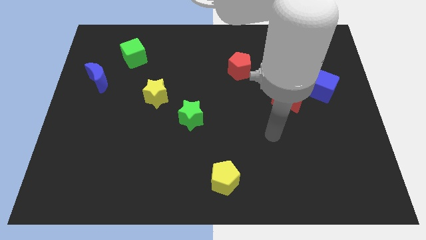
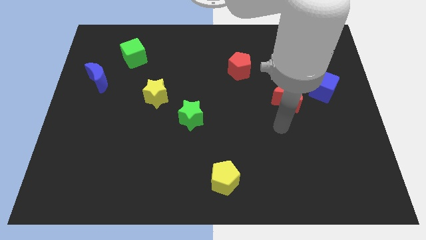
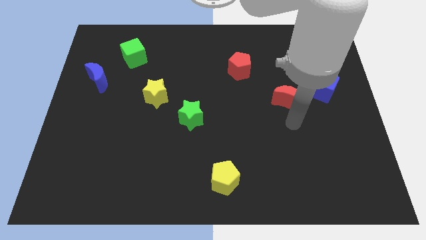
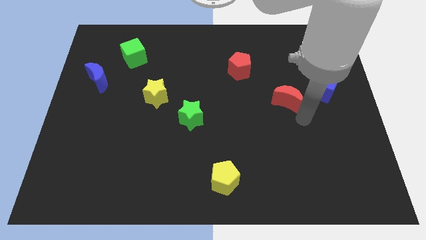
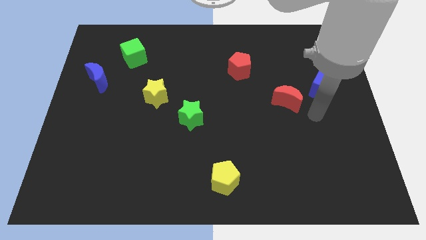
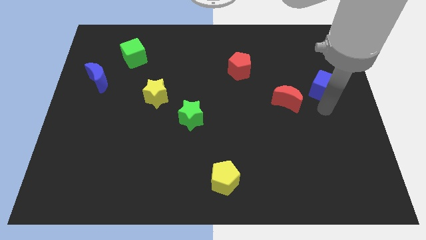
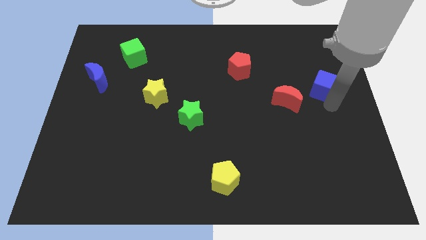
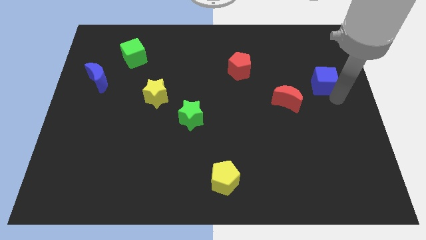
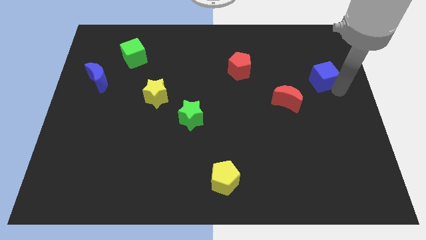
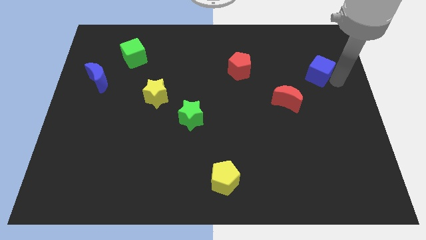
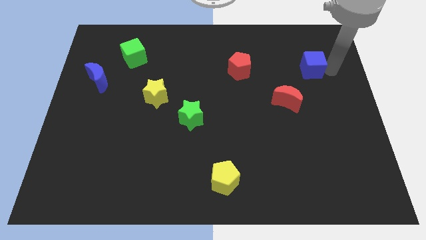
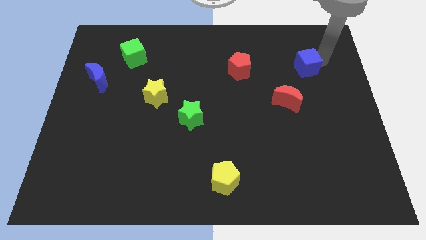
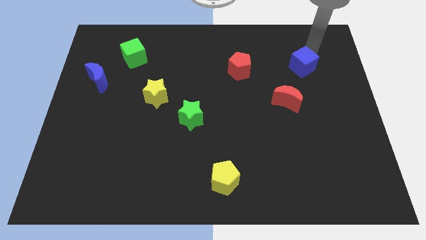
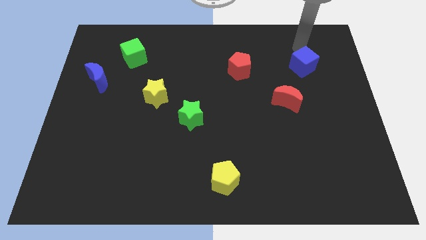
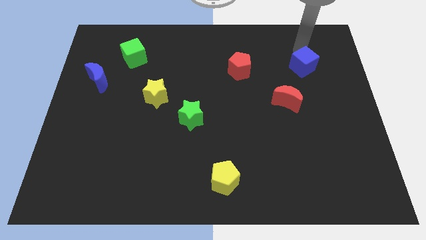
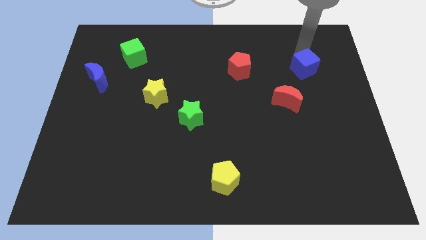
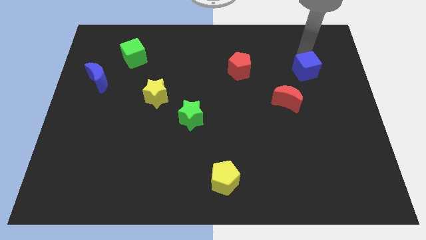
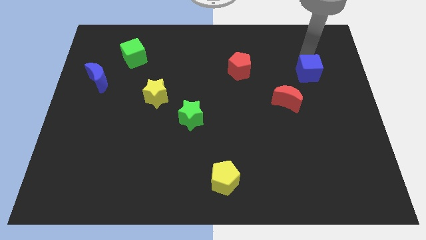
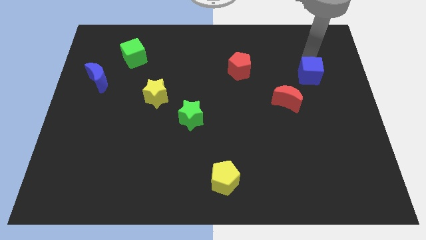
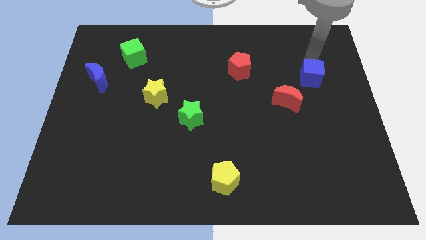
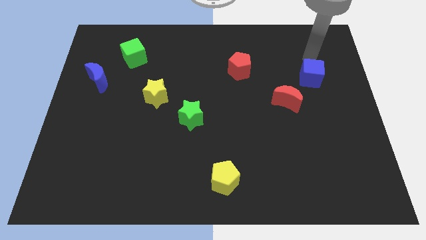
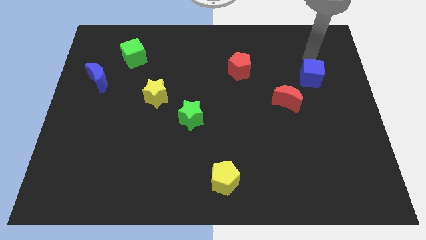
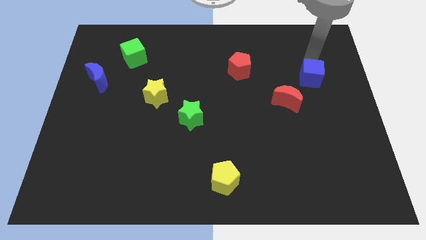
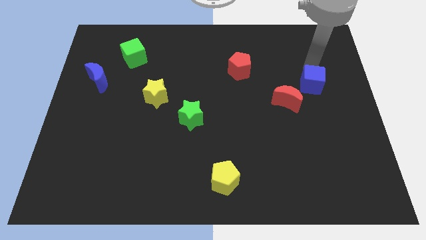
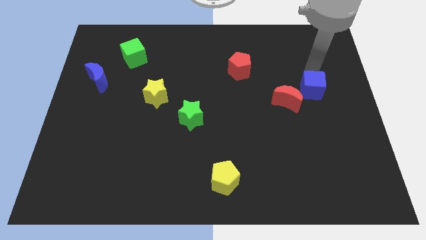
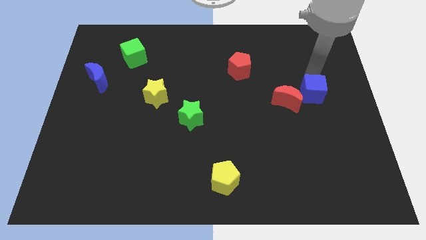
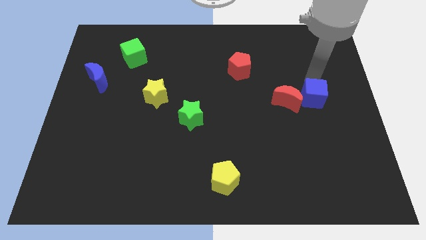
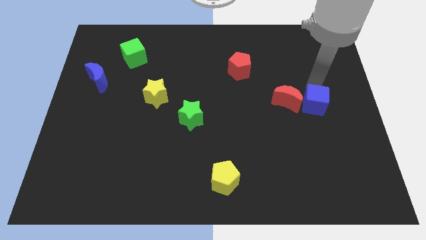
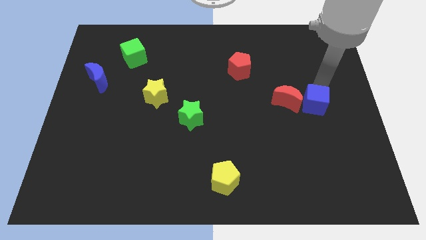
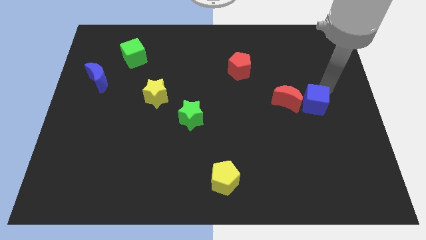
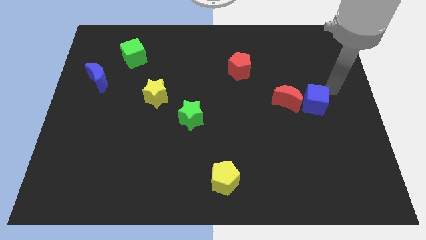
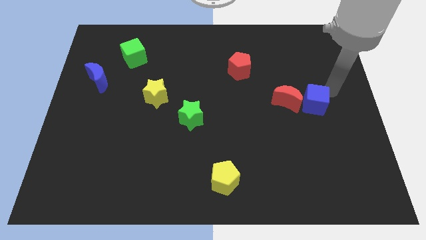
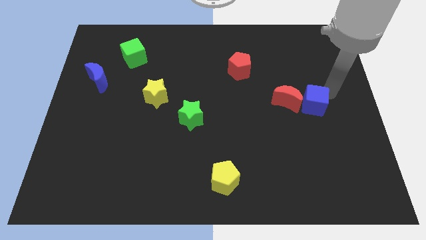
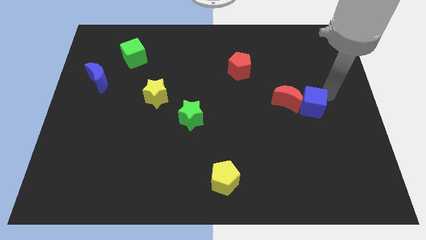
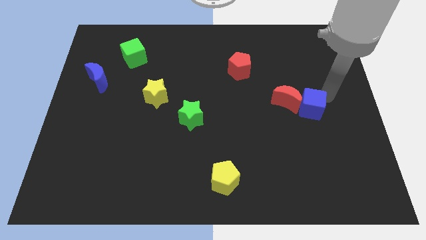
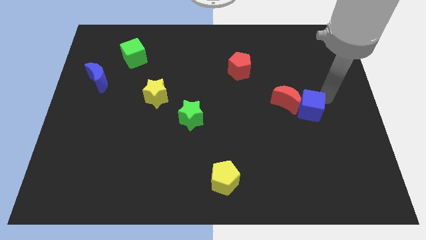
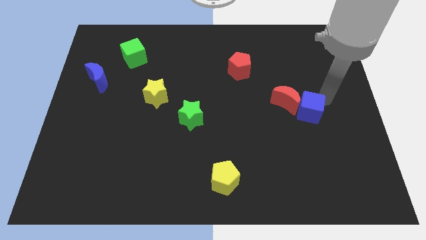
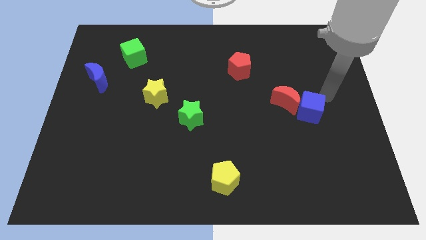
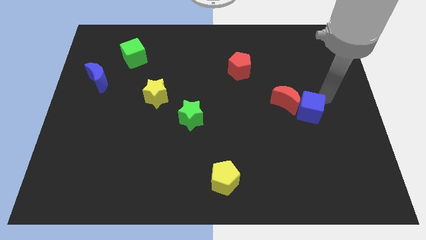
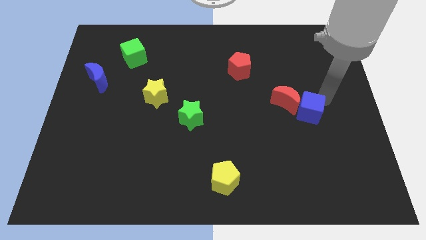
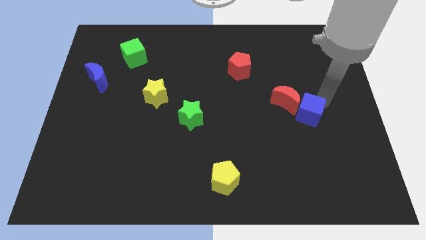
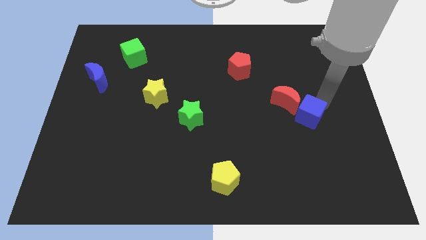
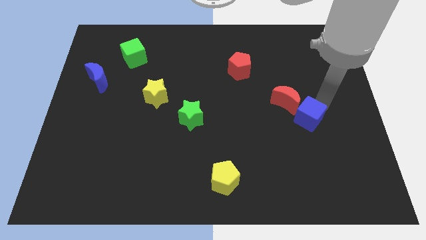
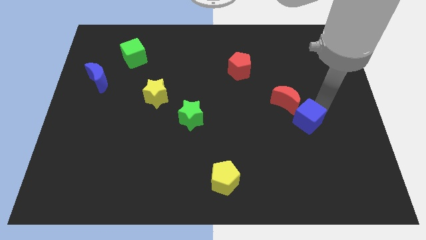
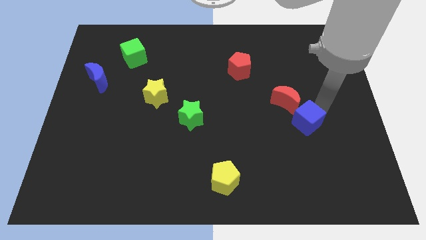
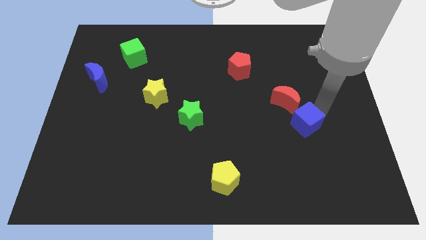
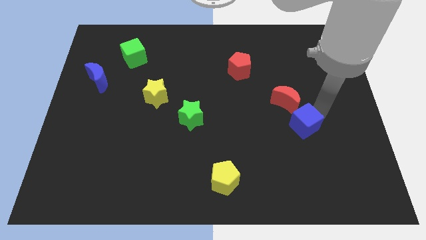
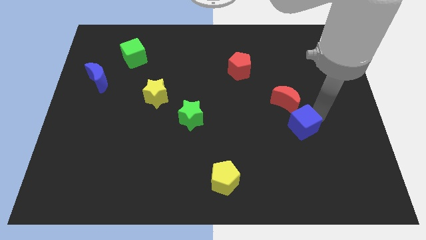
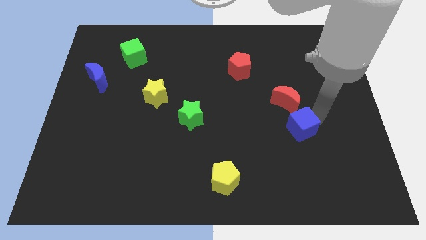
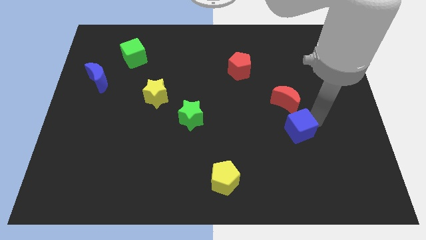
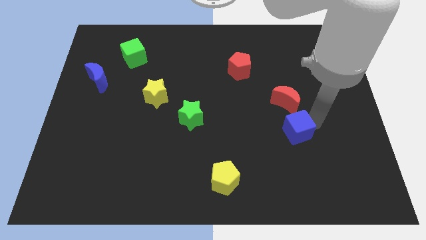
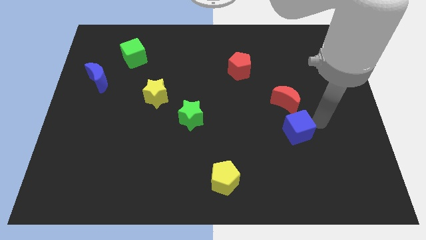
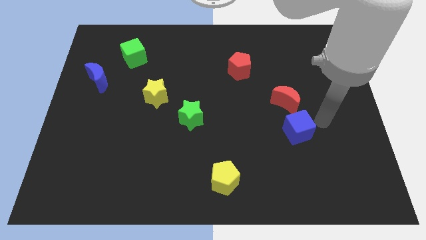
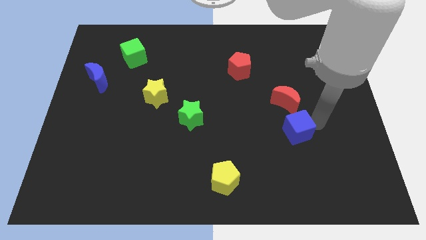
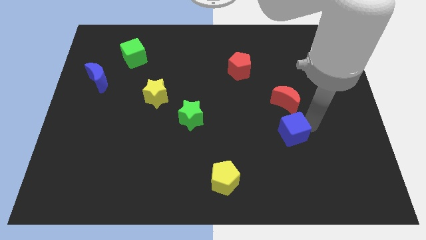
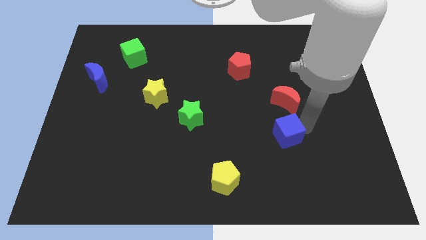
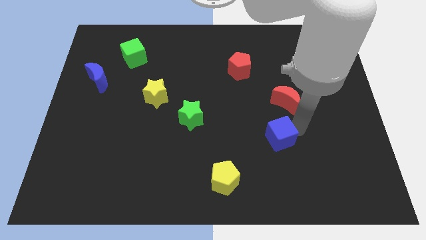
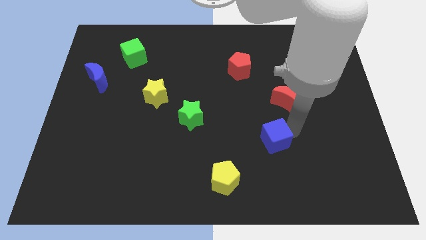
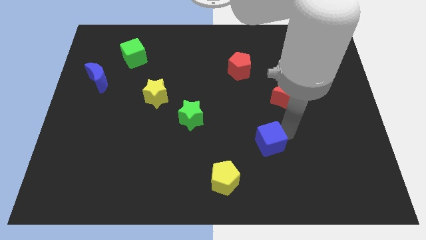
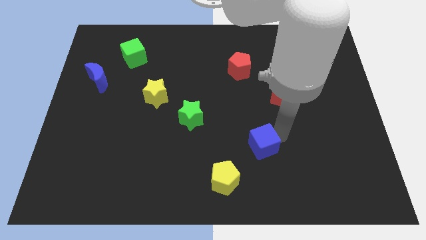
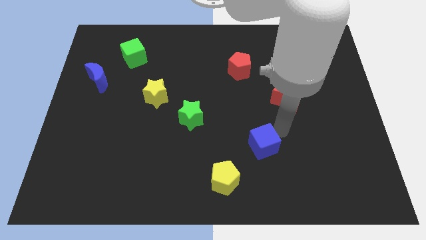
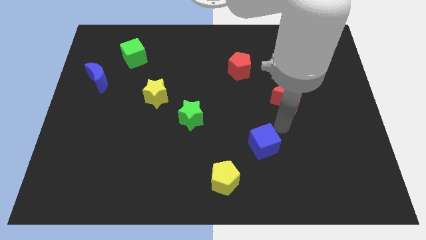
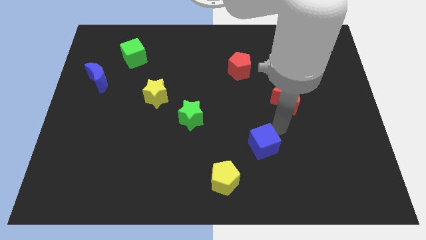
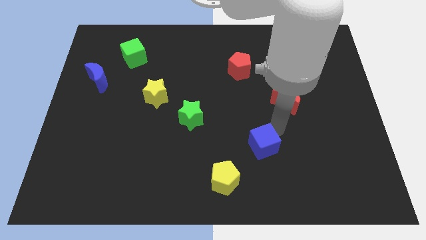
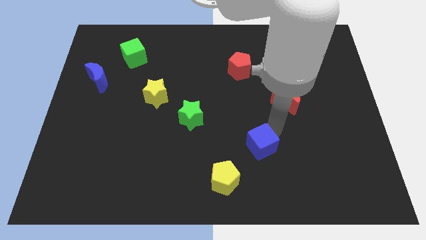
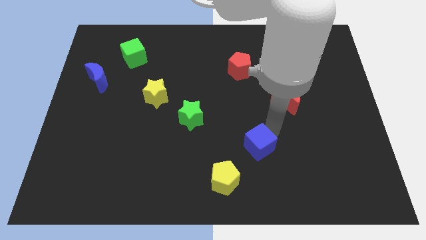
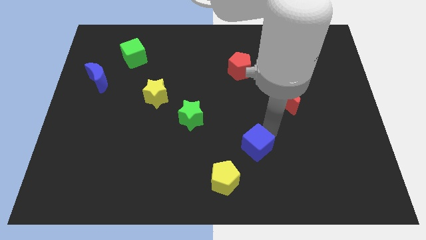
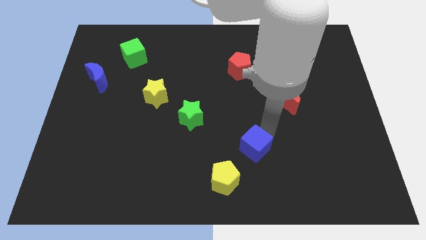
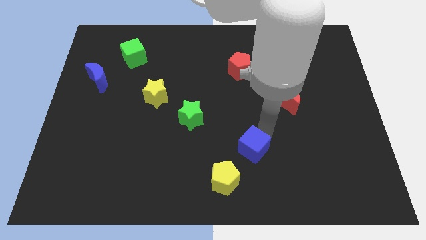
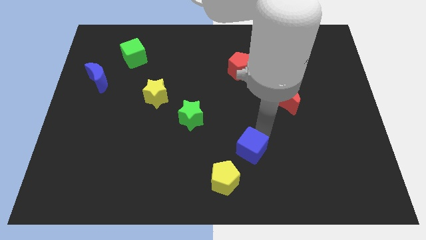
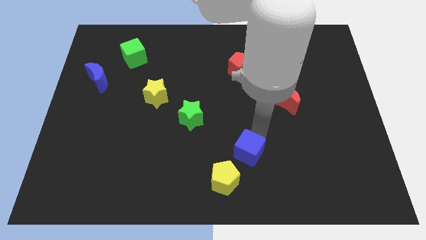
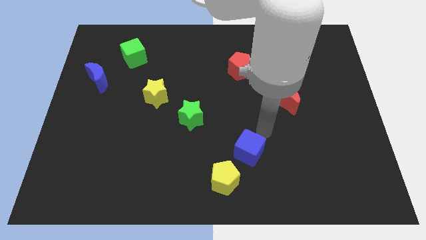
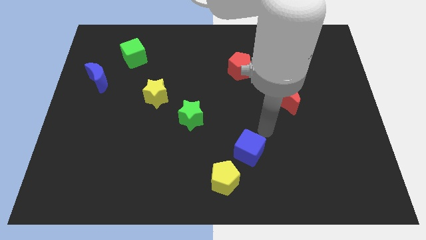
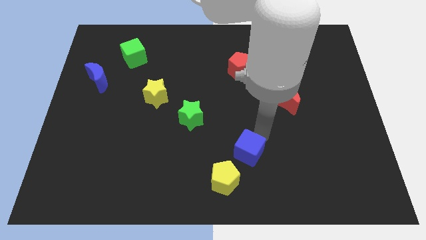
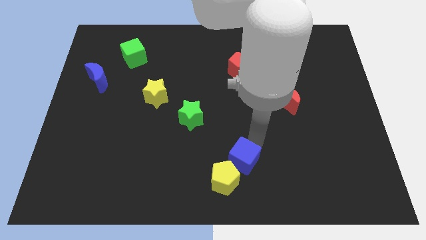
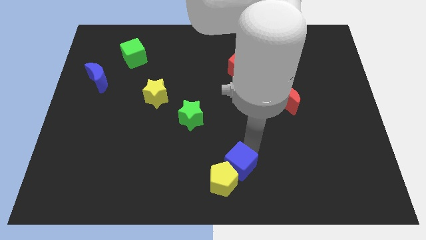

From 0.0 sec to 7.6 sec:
slide the blue cube towards the yellow pentagon
